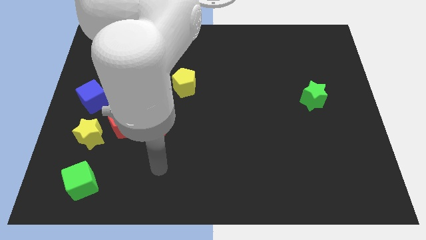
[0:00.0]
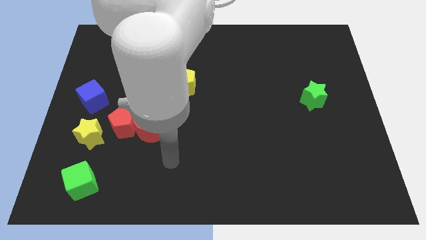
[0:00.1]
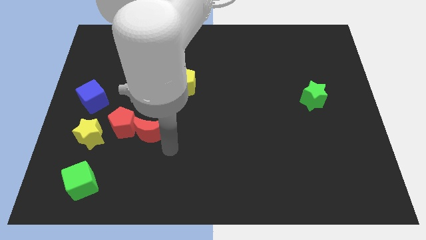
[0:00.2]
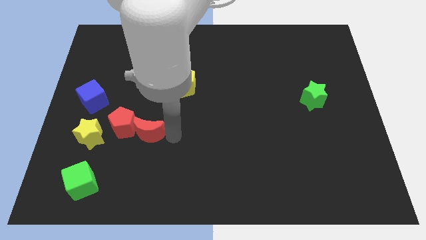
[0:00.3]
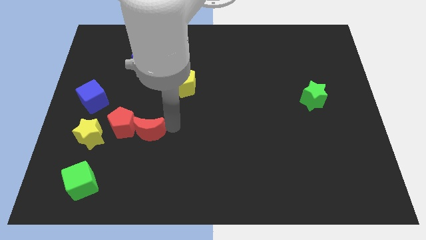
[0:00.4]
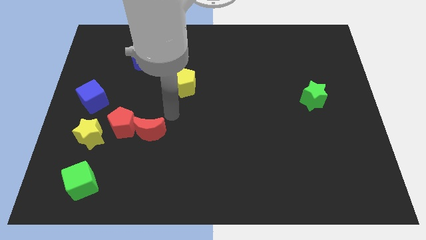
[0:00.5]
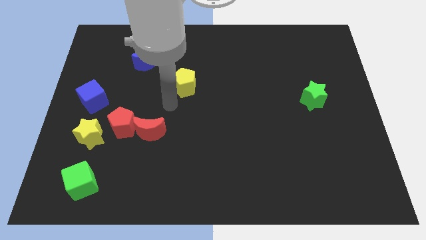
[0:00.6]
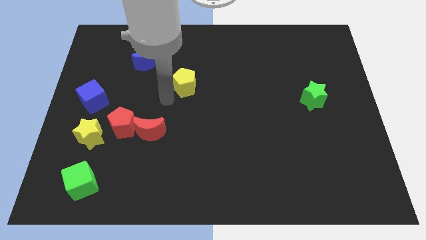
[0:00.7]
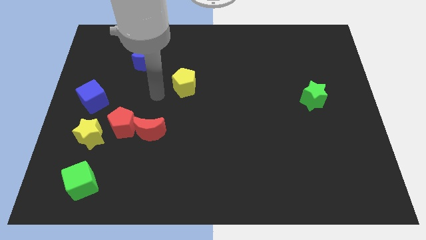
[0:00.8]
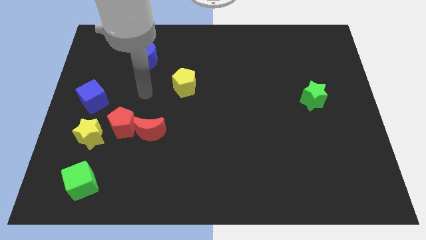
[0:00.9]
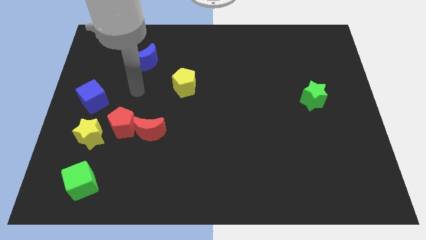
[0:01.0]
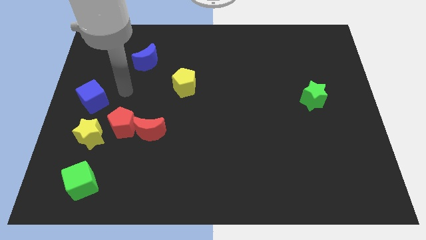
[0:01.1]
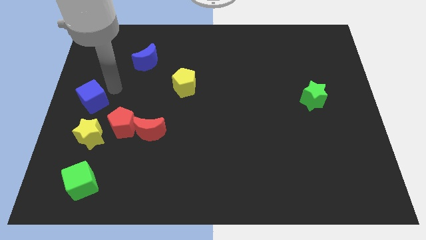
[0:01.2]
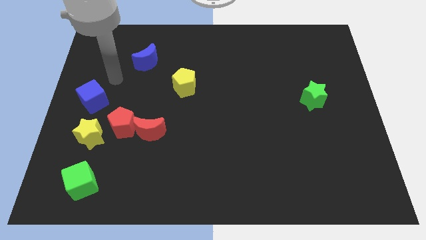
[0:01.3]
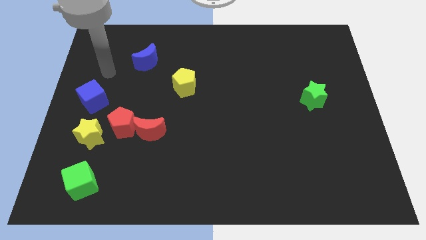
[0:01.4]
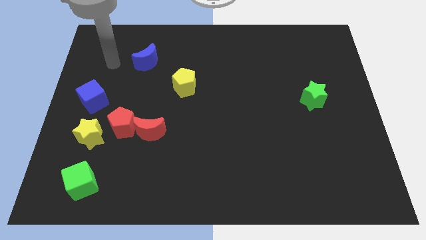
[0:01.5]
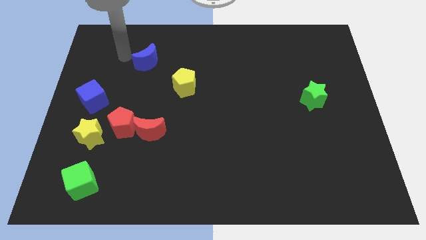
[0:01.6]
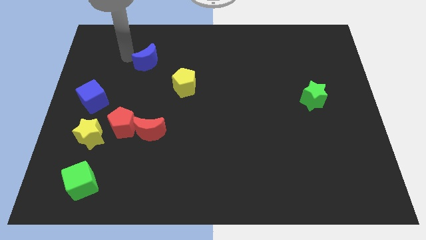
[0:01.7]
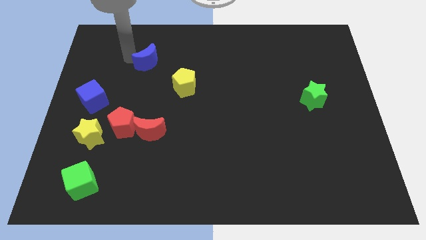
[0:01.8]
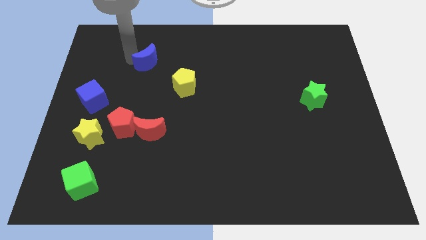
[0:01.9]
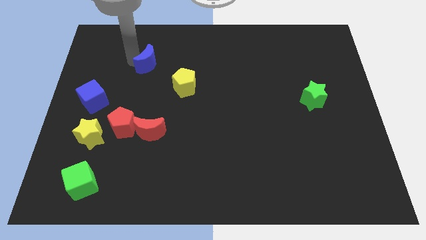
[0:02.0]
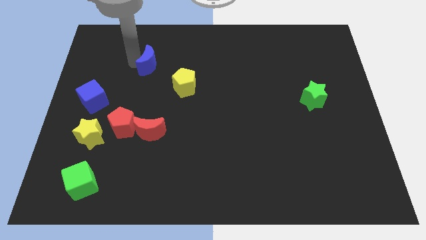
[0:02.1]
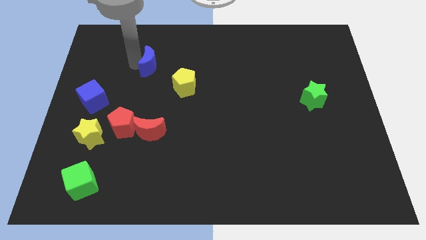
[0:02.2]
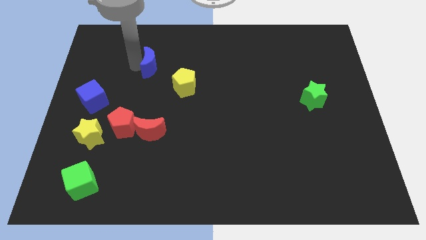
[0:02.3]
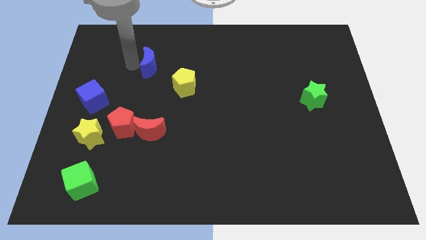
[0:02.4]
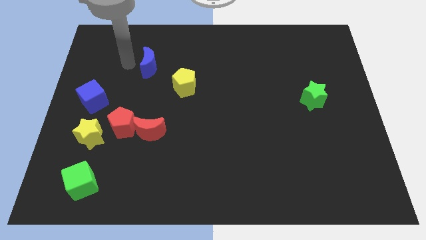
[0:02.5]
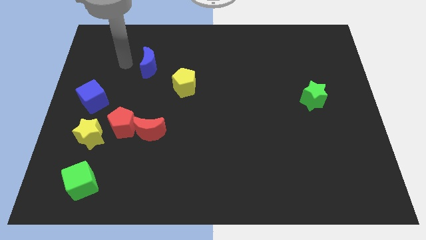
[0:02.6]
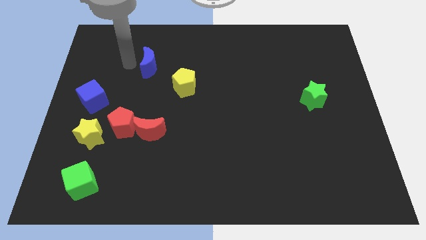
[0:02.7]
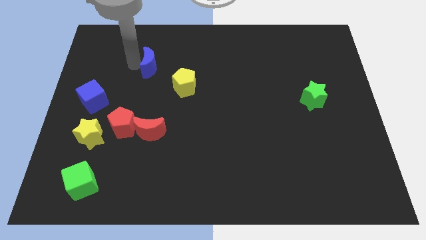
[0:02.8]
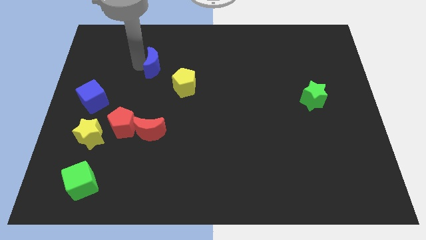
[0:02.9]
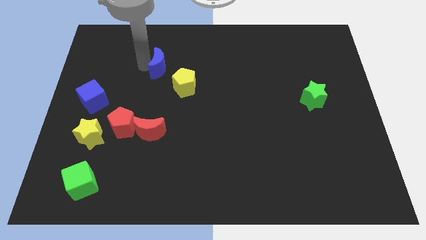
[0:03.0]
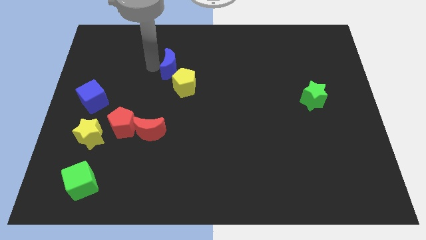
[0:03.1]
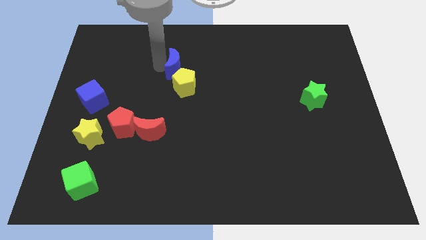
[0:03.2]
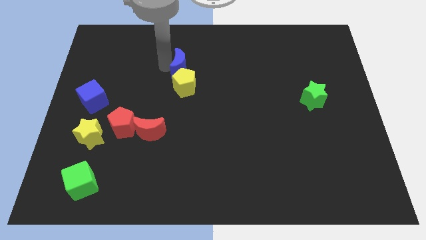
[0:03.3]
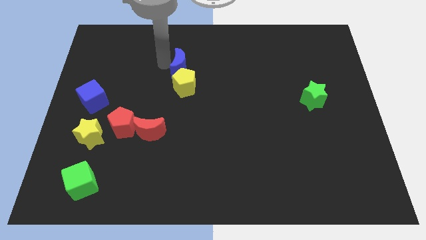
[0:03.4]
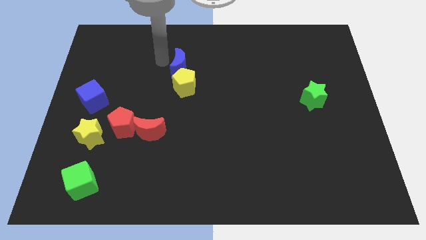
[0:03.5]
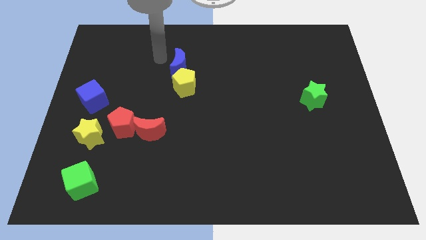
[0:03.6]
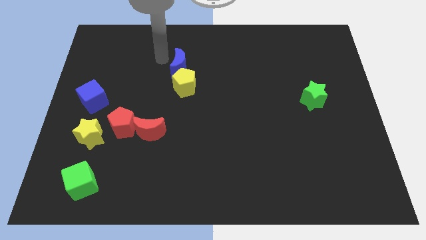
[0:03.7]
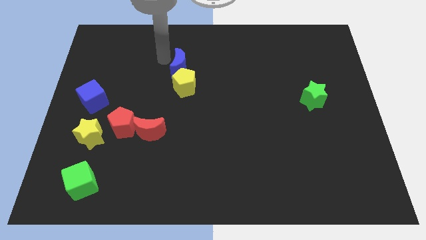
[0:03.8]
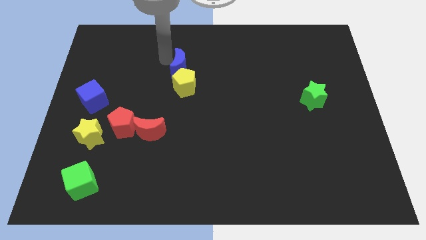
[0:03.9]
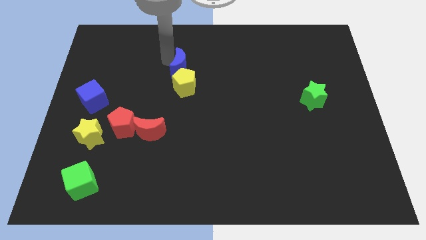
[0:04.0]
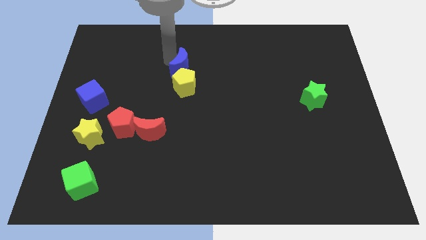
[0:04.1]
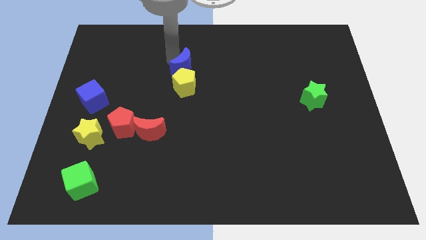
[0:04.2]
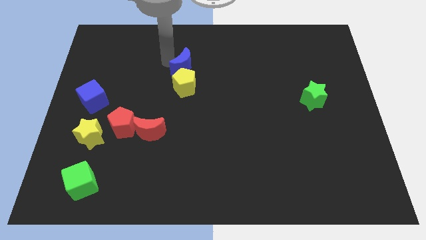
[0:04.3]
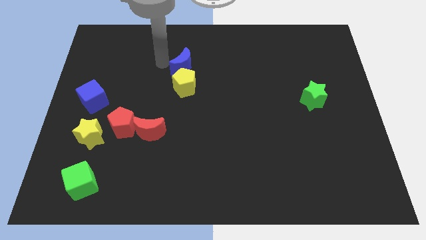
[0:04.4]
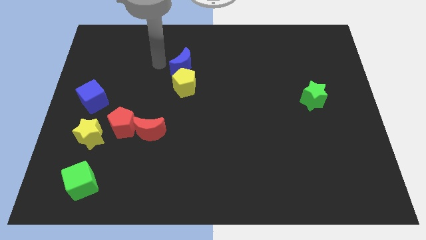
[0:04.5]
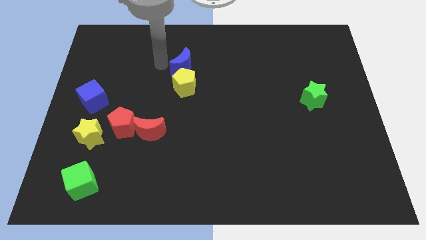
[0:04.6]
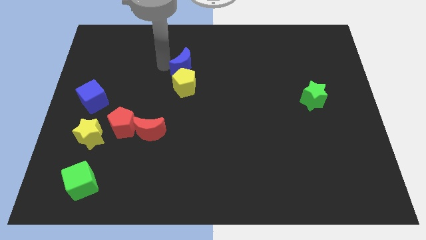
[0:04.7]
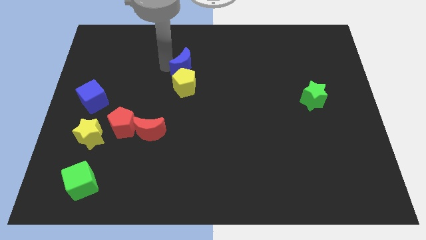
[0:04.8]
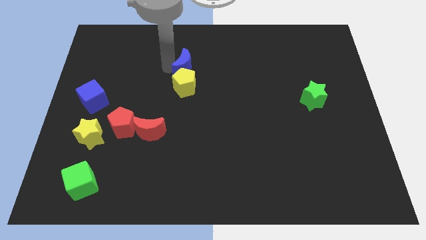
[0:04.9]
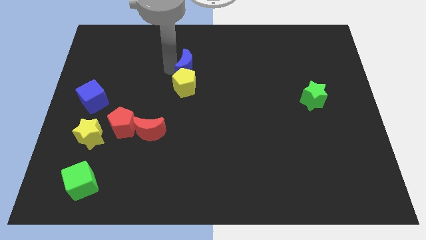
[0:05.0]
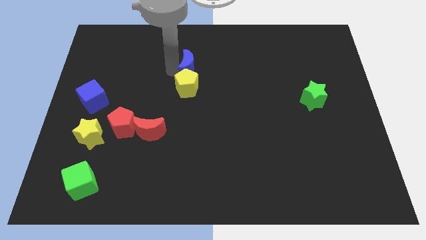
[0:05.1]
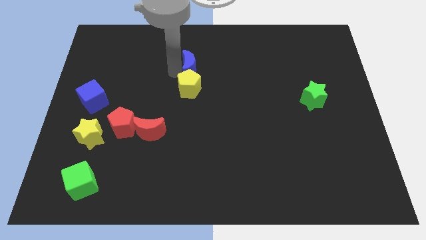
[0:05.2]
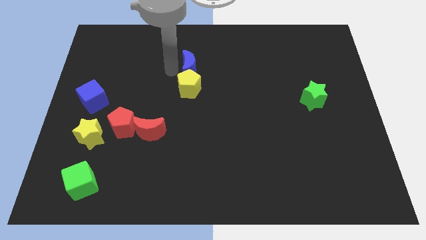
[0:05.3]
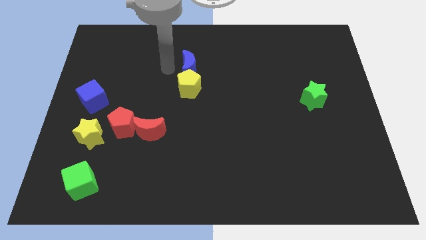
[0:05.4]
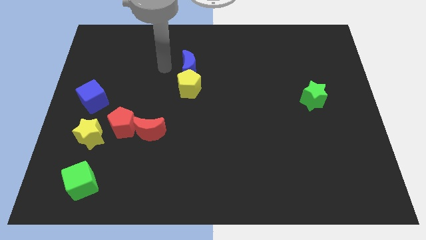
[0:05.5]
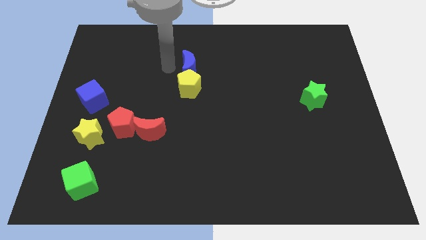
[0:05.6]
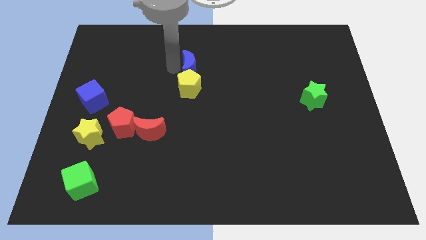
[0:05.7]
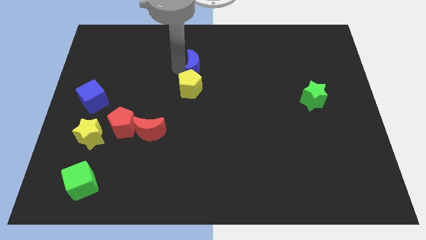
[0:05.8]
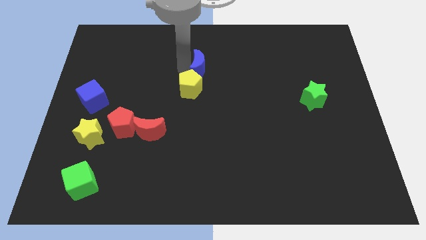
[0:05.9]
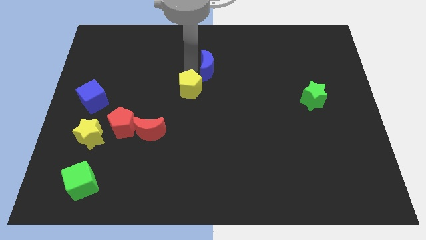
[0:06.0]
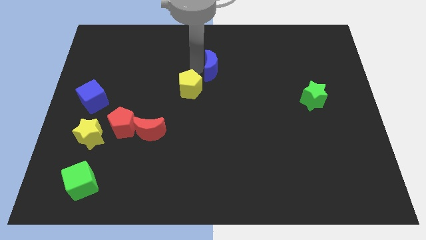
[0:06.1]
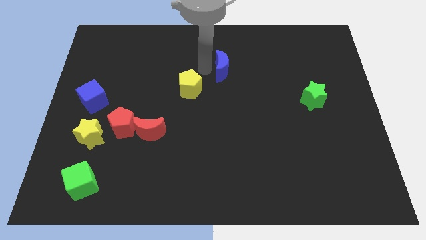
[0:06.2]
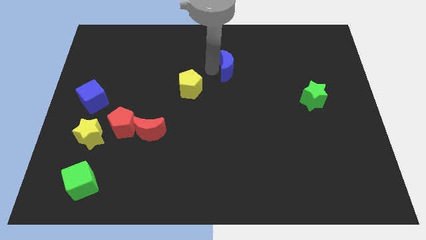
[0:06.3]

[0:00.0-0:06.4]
push the blue moon right

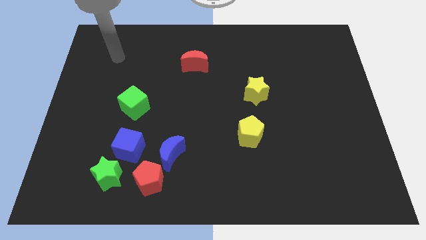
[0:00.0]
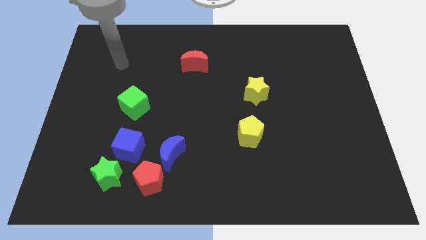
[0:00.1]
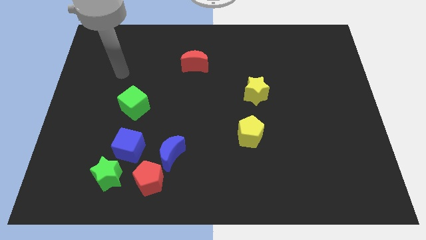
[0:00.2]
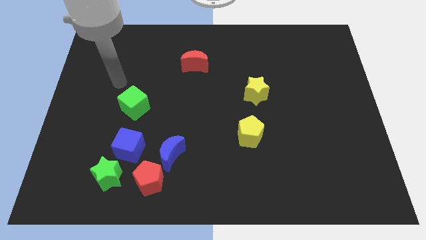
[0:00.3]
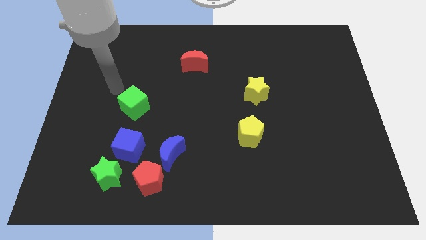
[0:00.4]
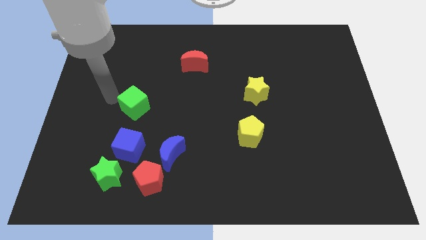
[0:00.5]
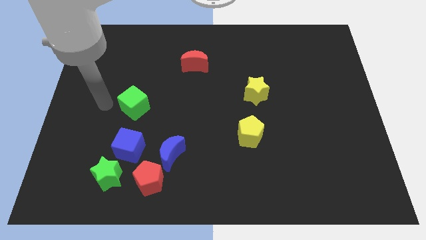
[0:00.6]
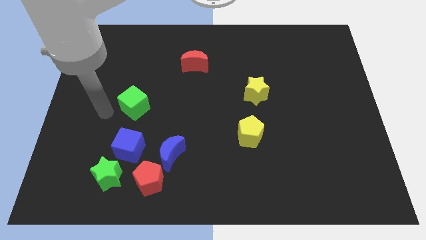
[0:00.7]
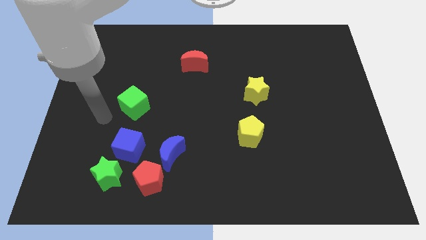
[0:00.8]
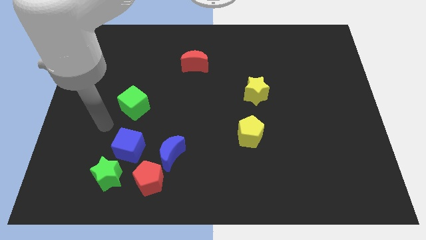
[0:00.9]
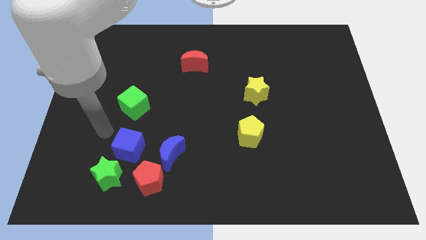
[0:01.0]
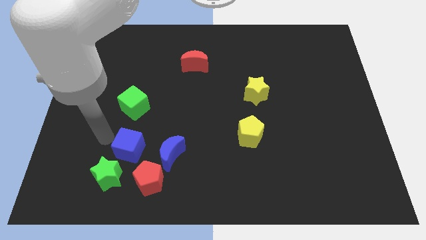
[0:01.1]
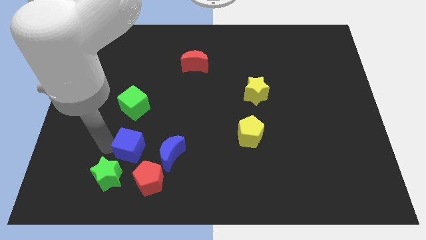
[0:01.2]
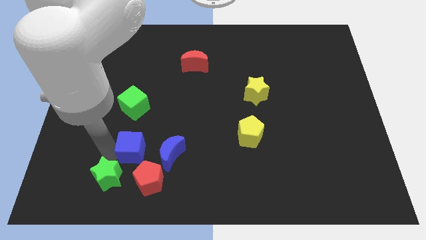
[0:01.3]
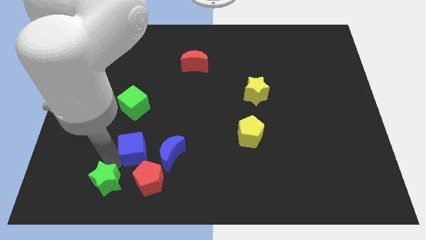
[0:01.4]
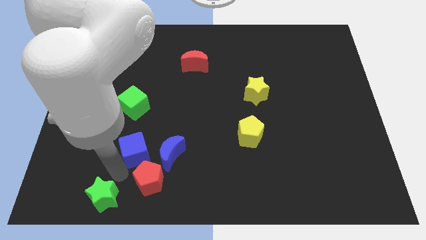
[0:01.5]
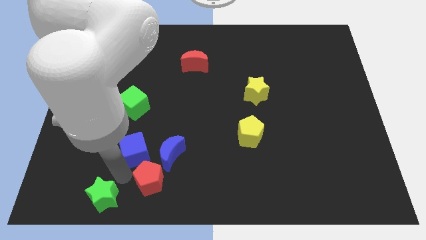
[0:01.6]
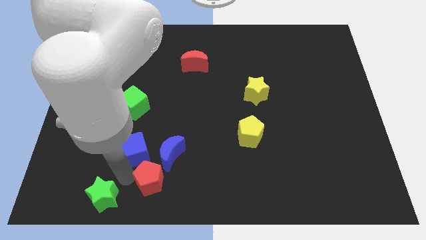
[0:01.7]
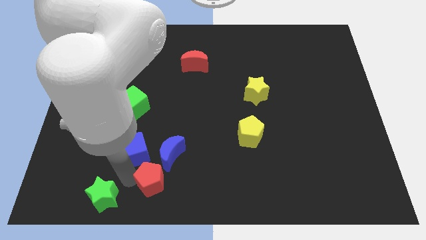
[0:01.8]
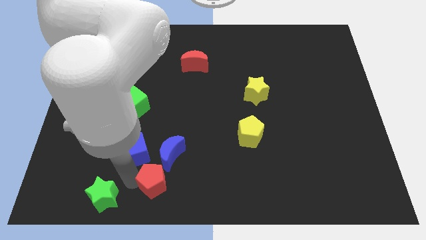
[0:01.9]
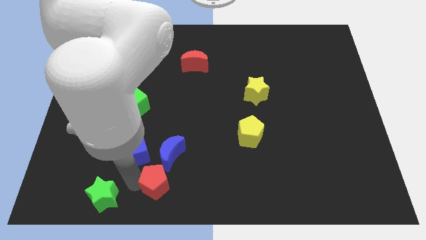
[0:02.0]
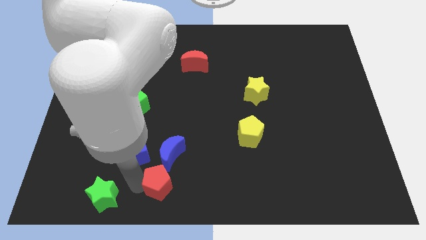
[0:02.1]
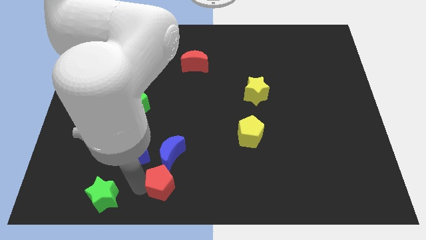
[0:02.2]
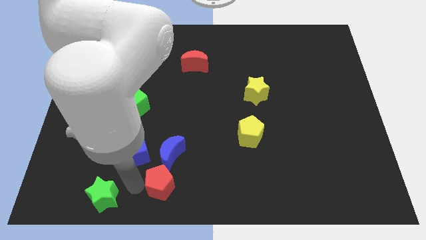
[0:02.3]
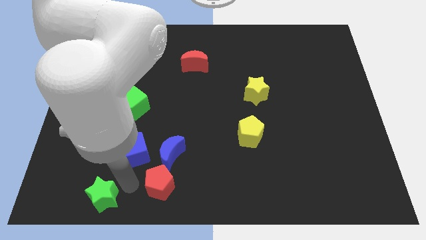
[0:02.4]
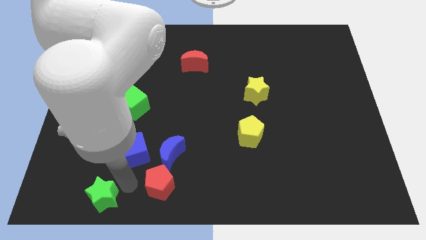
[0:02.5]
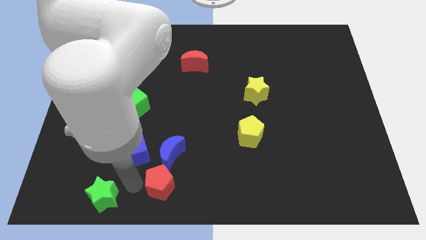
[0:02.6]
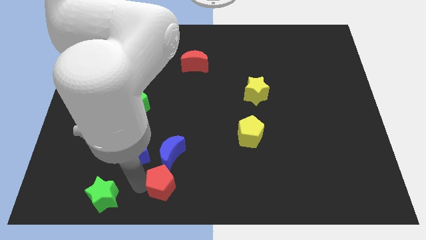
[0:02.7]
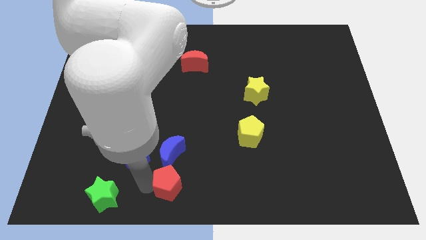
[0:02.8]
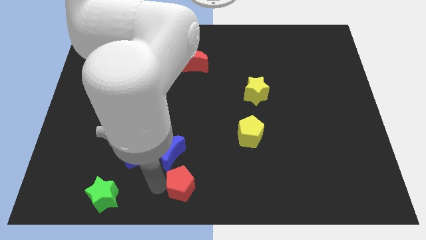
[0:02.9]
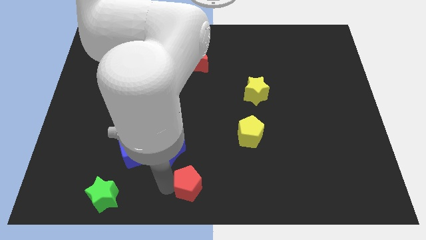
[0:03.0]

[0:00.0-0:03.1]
slide the red pentagon right a little bit
